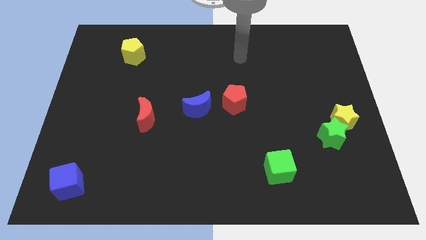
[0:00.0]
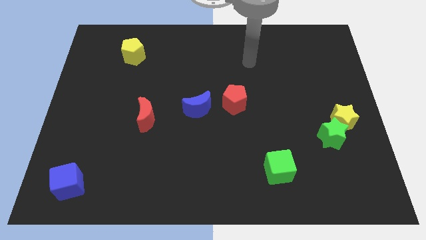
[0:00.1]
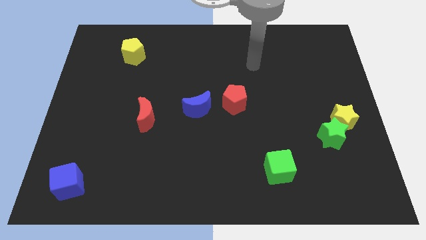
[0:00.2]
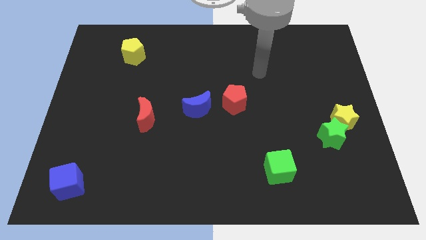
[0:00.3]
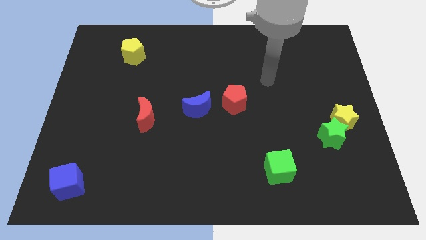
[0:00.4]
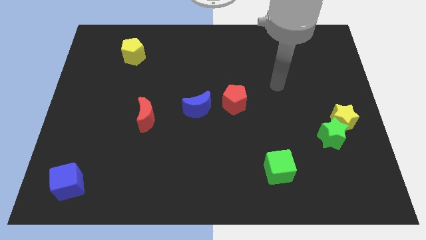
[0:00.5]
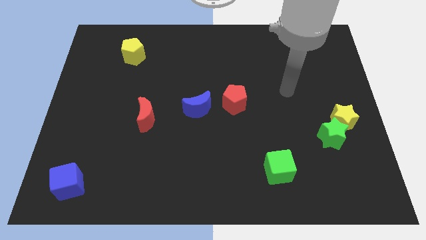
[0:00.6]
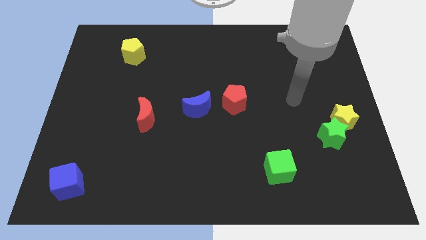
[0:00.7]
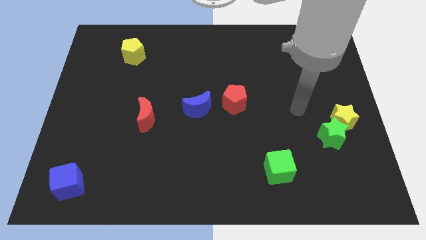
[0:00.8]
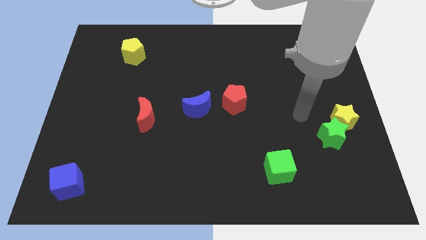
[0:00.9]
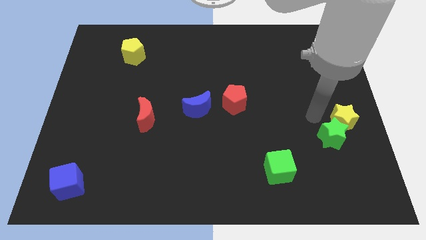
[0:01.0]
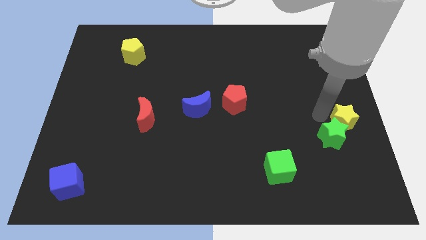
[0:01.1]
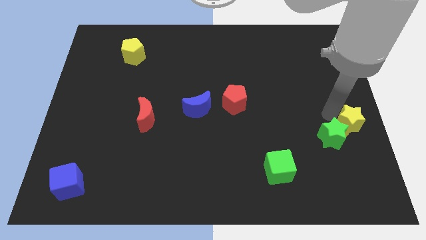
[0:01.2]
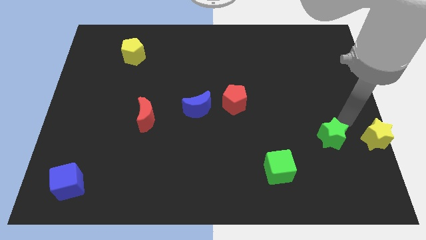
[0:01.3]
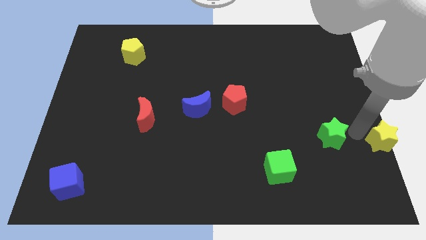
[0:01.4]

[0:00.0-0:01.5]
move the green star away from the yellow star

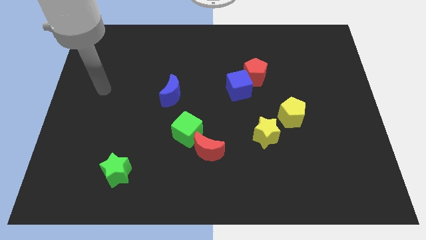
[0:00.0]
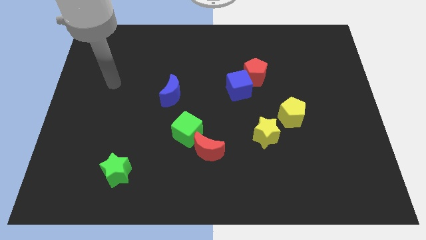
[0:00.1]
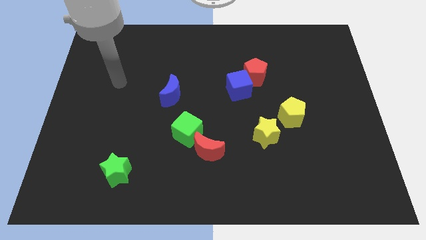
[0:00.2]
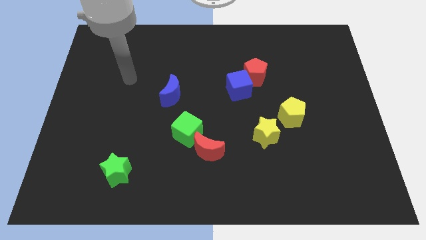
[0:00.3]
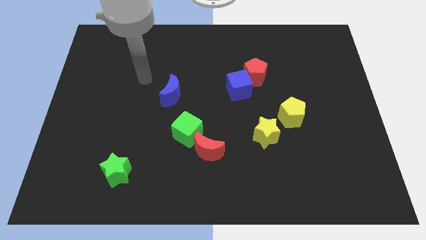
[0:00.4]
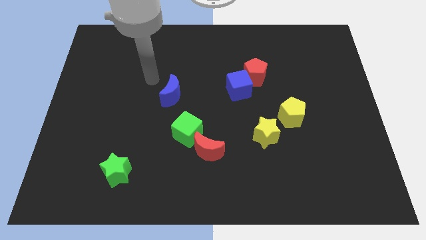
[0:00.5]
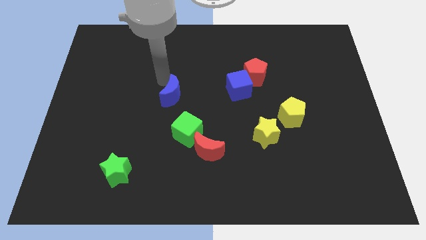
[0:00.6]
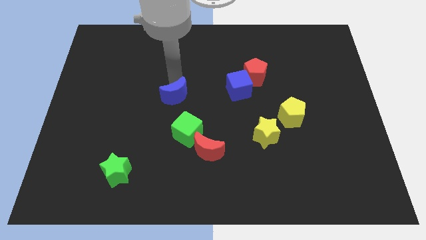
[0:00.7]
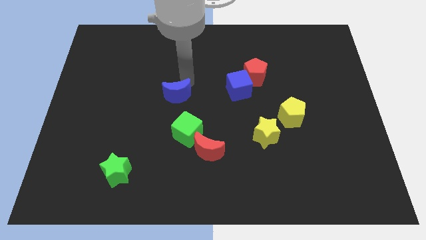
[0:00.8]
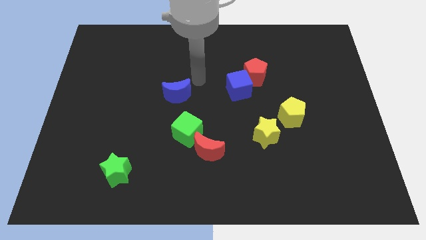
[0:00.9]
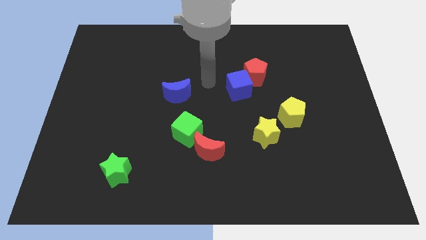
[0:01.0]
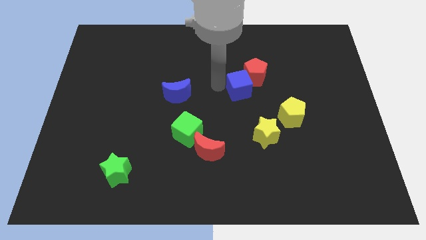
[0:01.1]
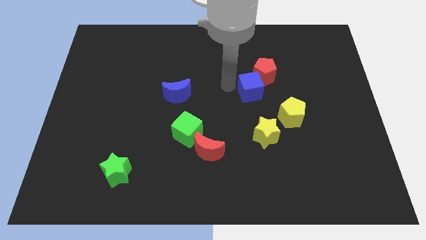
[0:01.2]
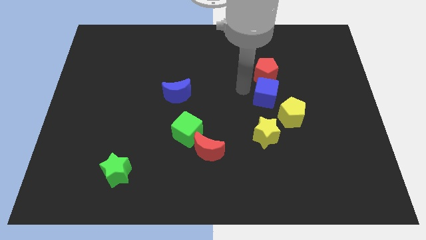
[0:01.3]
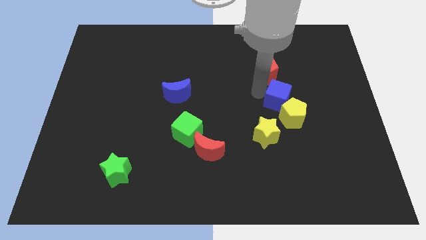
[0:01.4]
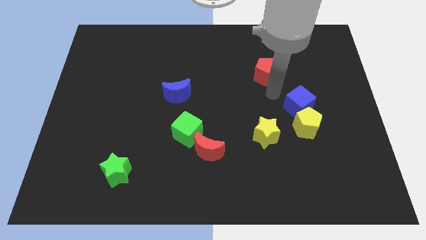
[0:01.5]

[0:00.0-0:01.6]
move the red pentagon away from the blue cube

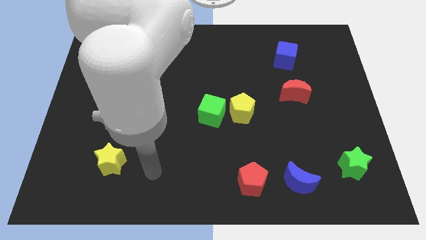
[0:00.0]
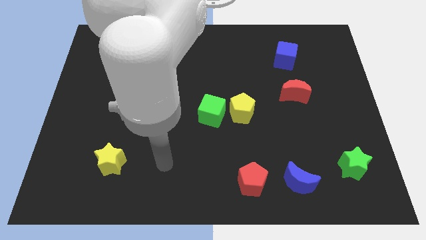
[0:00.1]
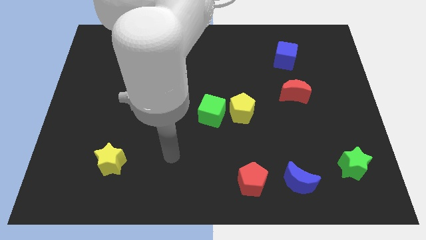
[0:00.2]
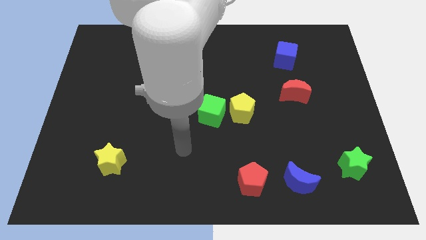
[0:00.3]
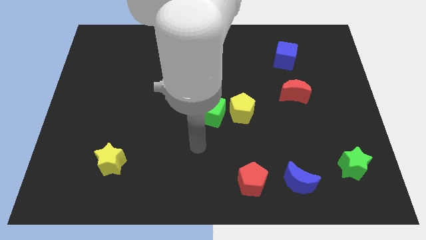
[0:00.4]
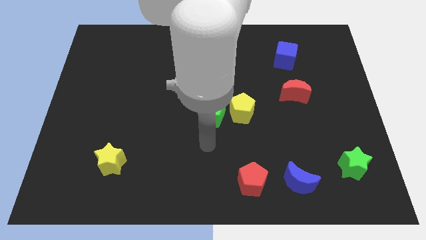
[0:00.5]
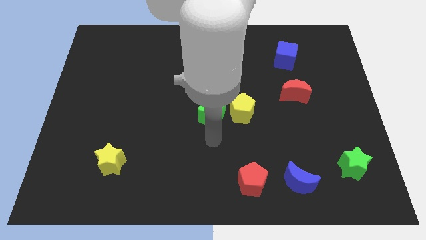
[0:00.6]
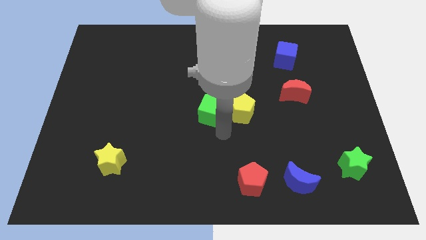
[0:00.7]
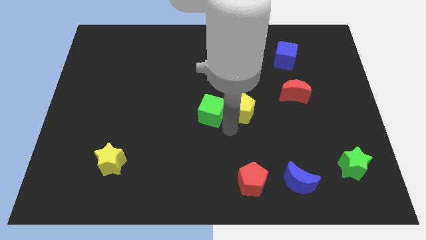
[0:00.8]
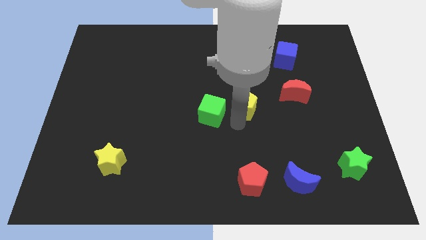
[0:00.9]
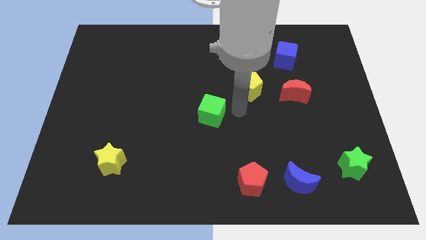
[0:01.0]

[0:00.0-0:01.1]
separate the green cube from the yellow pentagon

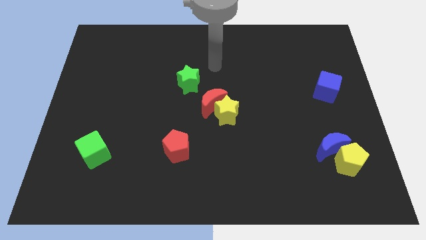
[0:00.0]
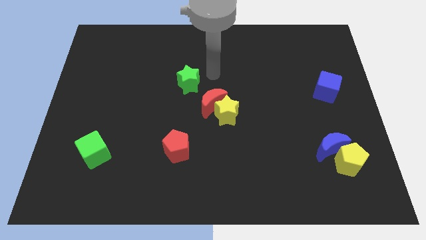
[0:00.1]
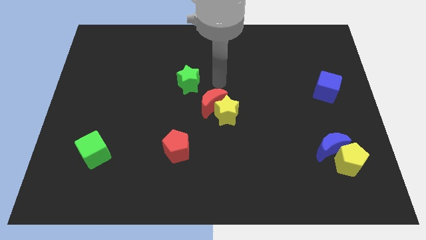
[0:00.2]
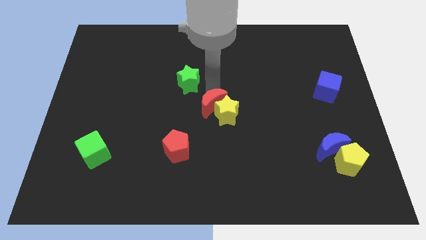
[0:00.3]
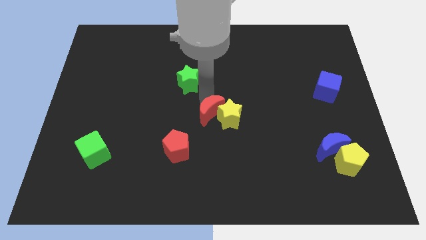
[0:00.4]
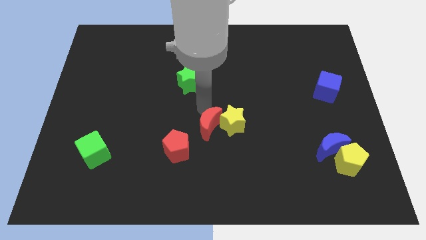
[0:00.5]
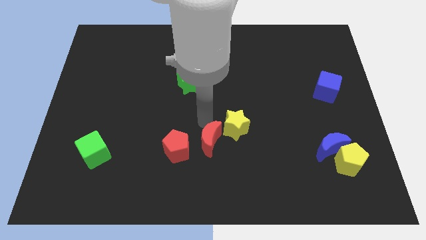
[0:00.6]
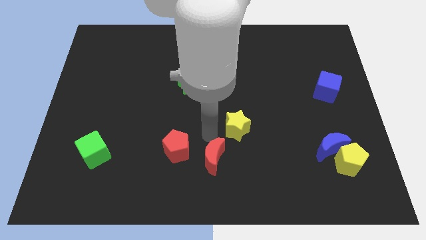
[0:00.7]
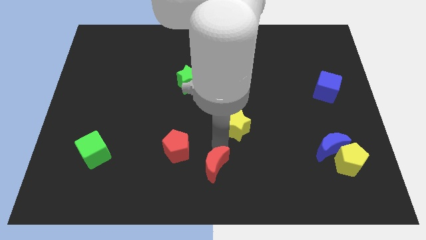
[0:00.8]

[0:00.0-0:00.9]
move the yellow star away from the red moon

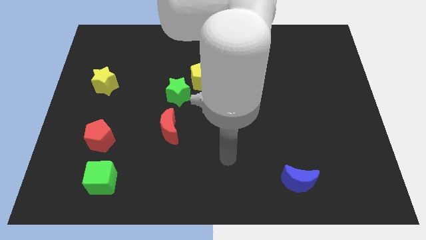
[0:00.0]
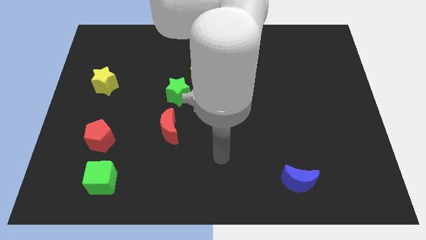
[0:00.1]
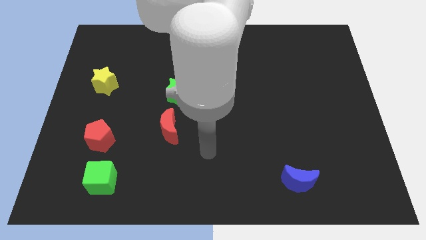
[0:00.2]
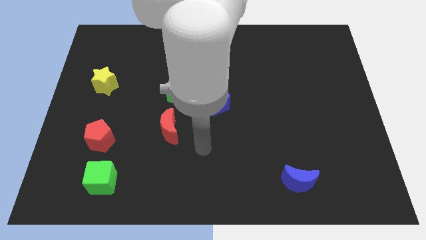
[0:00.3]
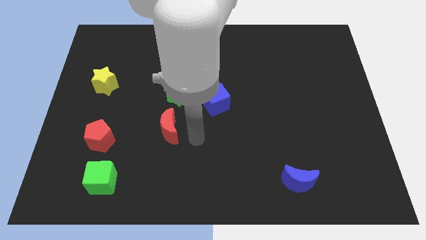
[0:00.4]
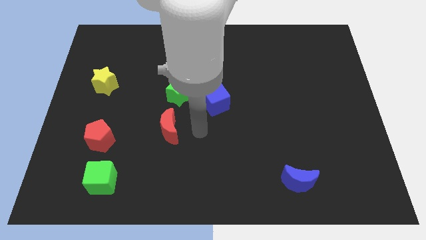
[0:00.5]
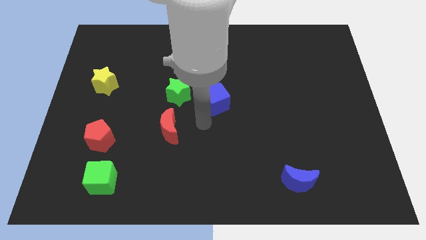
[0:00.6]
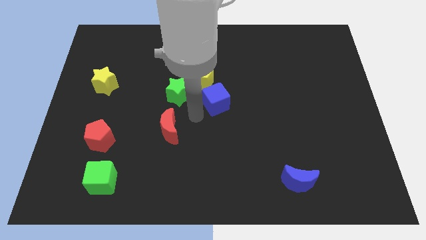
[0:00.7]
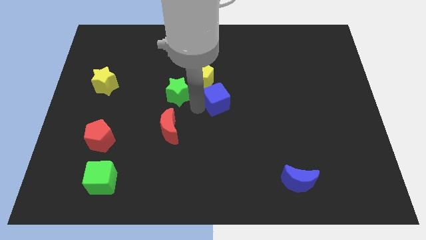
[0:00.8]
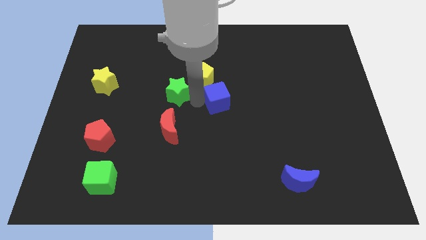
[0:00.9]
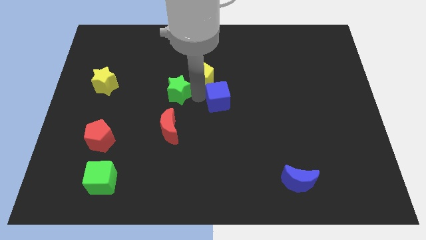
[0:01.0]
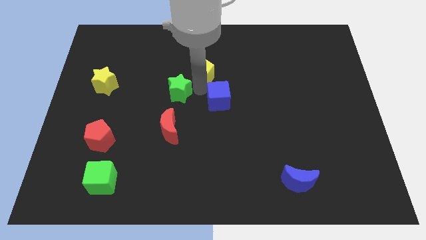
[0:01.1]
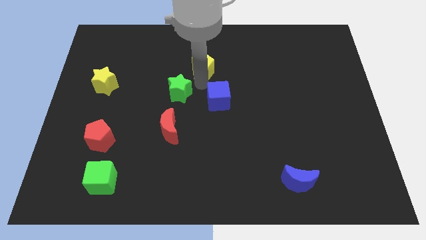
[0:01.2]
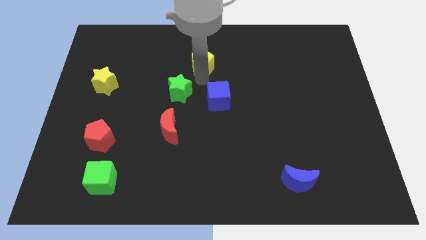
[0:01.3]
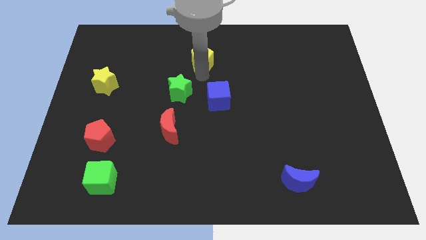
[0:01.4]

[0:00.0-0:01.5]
move the yellow pentagon away from the green star and blue cube

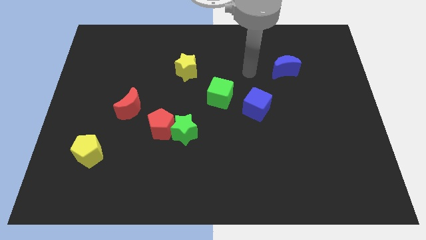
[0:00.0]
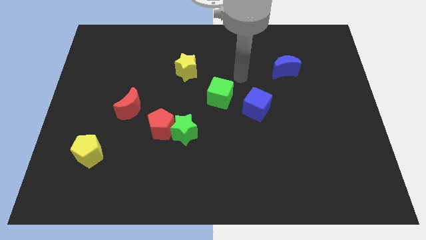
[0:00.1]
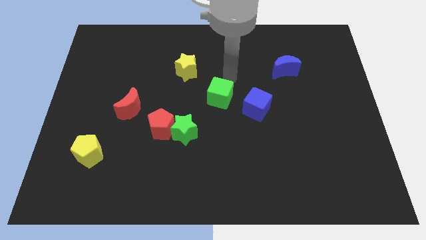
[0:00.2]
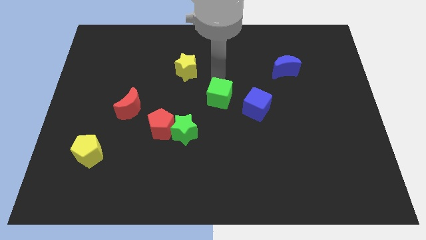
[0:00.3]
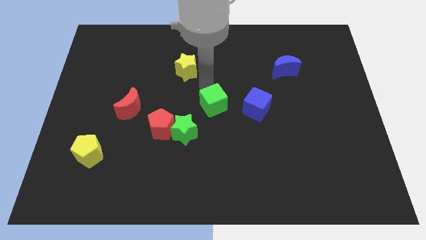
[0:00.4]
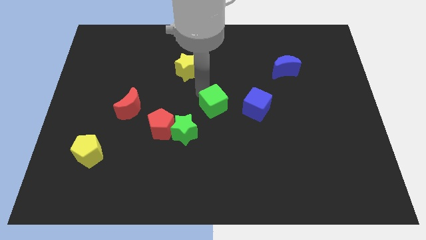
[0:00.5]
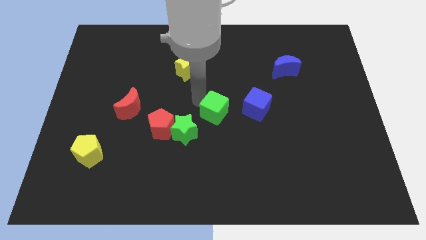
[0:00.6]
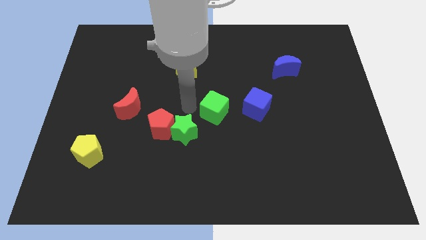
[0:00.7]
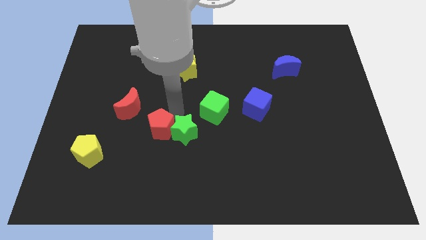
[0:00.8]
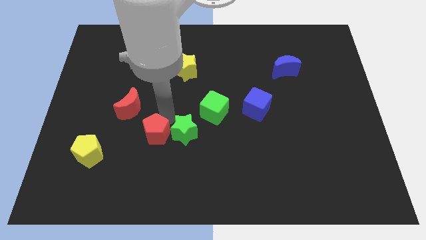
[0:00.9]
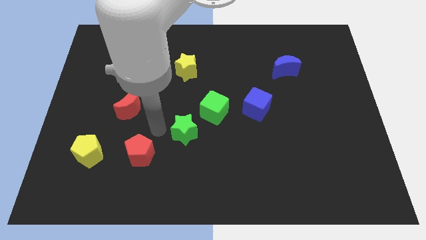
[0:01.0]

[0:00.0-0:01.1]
pull the green star apart from the red pentagon

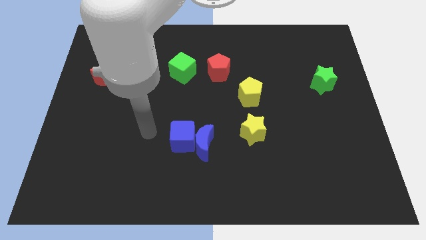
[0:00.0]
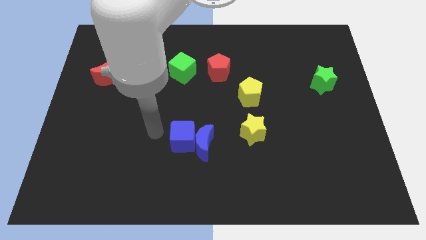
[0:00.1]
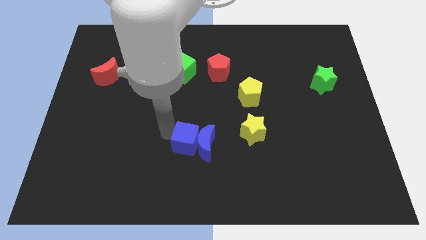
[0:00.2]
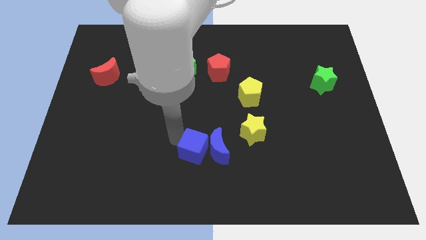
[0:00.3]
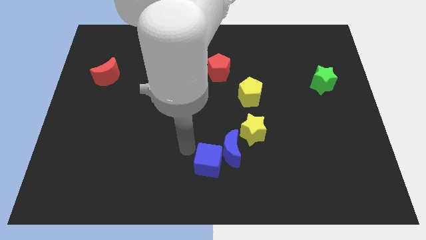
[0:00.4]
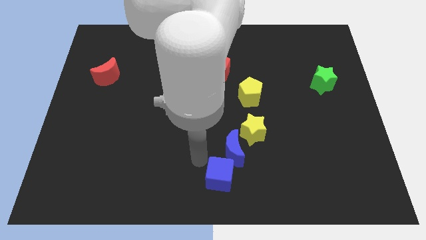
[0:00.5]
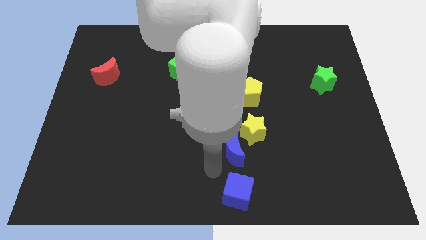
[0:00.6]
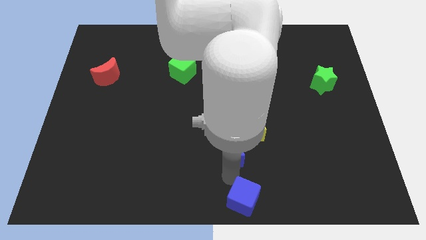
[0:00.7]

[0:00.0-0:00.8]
move the blue moon away from the blue cube

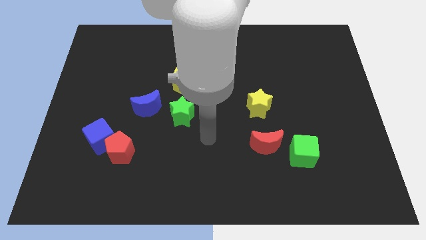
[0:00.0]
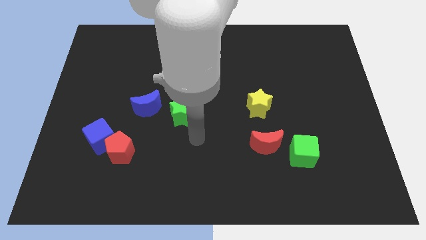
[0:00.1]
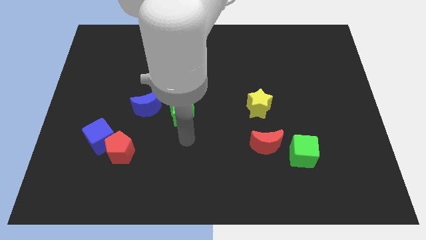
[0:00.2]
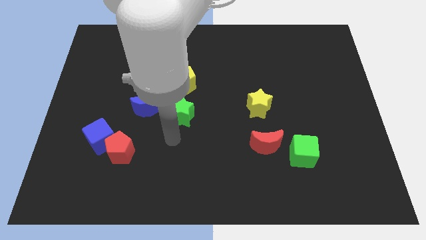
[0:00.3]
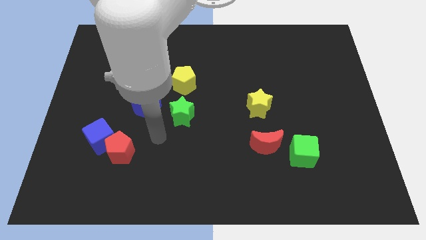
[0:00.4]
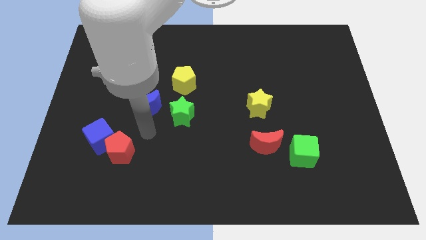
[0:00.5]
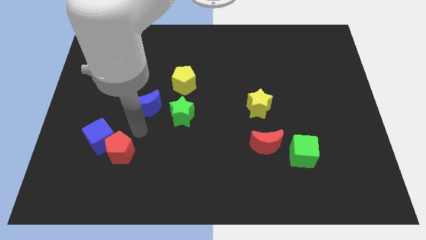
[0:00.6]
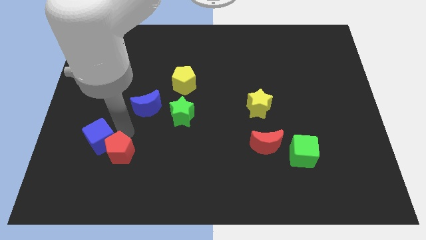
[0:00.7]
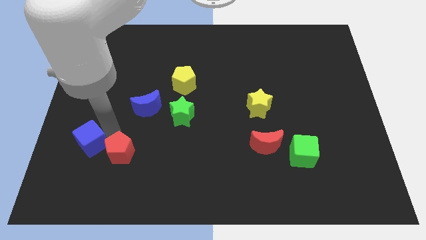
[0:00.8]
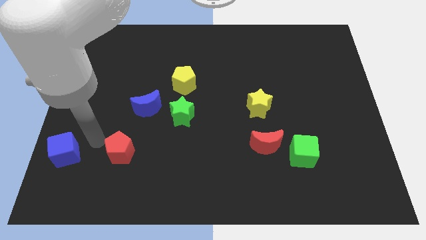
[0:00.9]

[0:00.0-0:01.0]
pull the red pentagon apart from the blue cube
